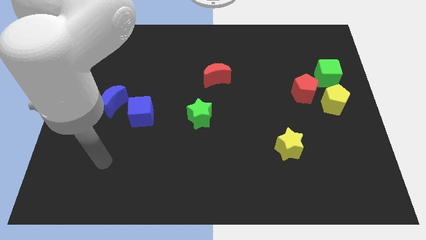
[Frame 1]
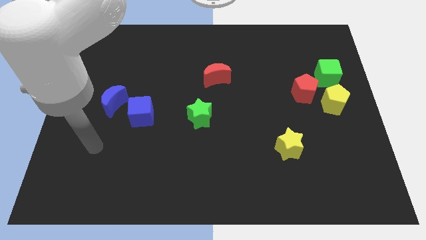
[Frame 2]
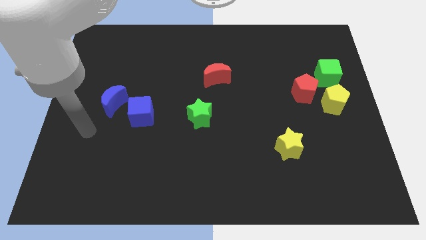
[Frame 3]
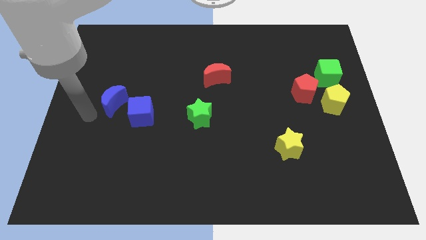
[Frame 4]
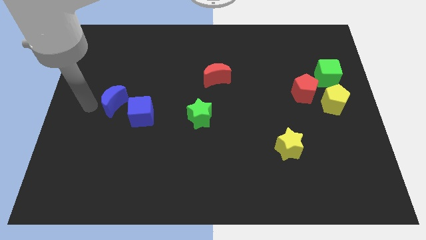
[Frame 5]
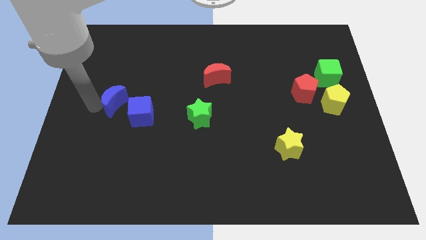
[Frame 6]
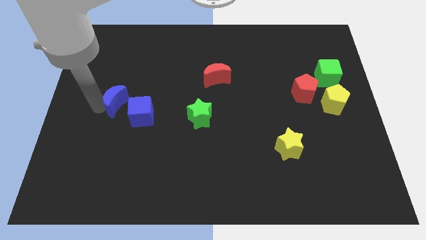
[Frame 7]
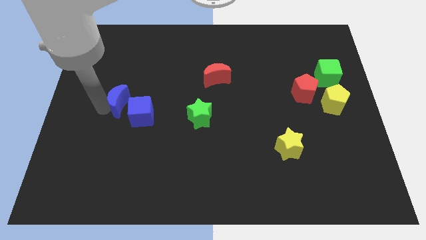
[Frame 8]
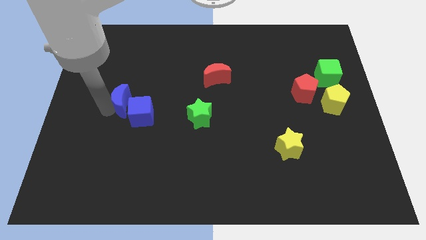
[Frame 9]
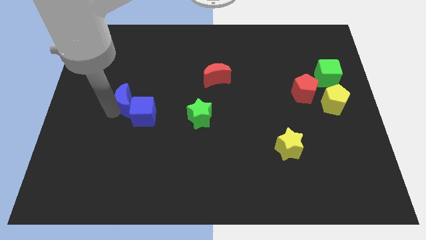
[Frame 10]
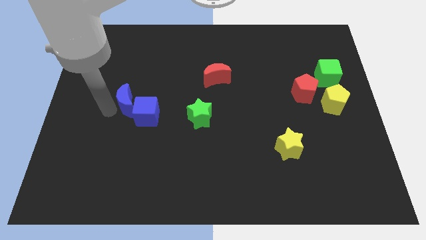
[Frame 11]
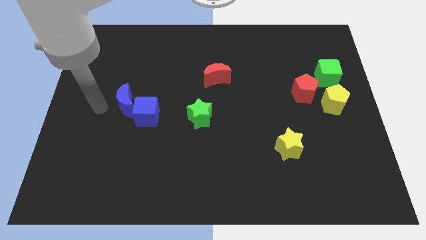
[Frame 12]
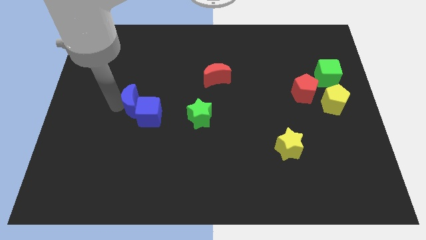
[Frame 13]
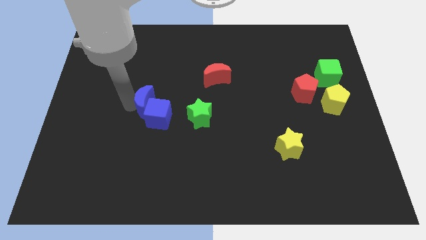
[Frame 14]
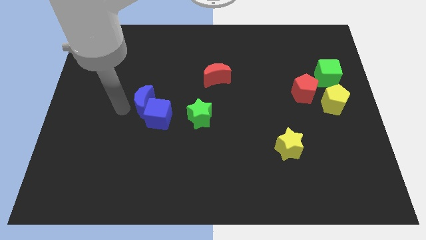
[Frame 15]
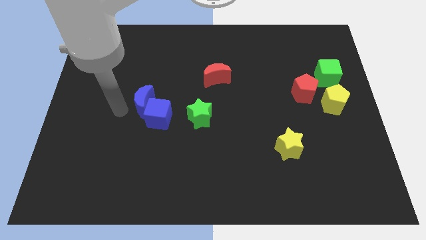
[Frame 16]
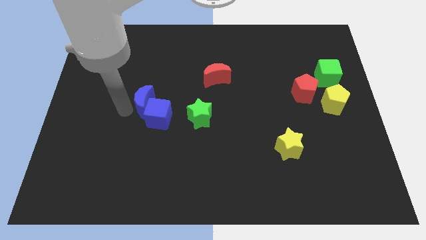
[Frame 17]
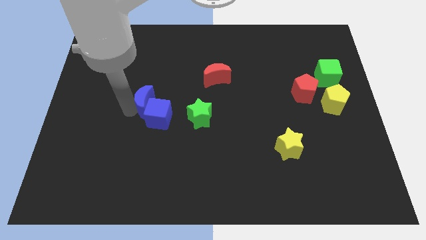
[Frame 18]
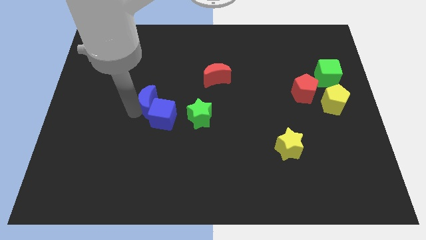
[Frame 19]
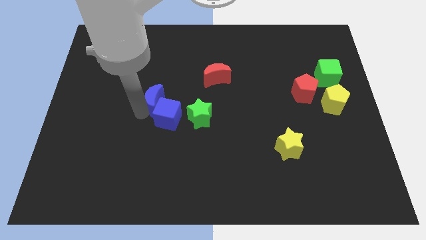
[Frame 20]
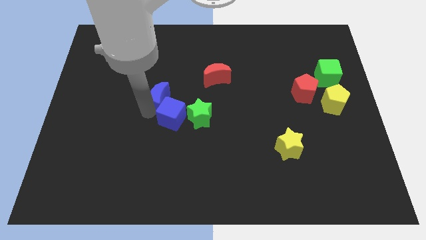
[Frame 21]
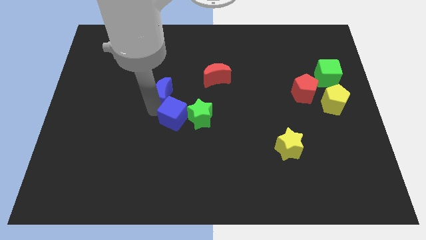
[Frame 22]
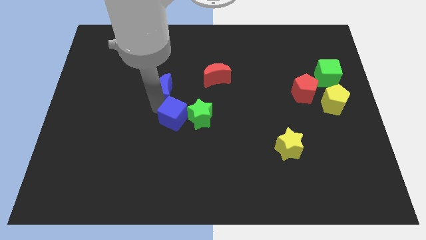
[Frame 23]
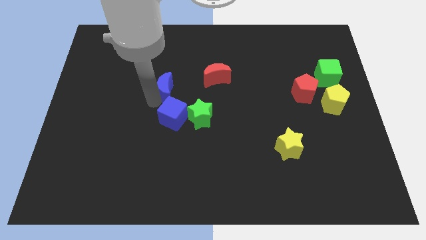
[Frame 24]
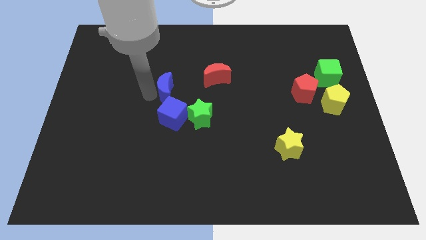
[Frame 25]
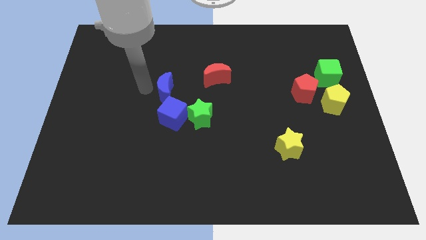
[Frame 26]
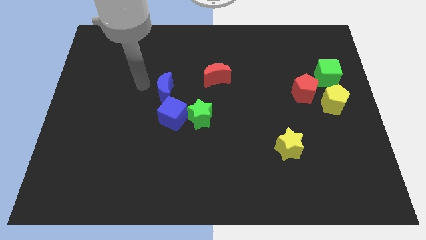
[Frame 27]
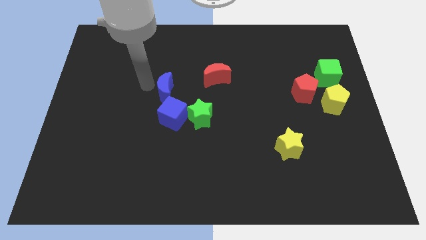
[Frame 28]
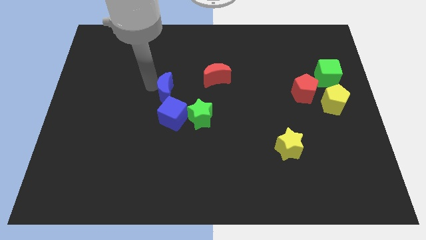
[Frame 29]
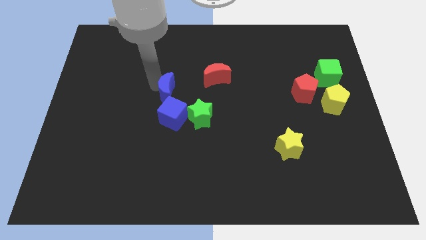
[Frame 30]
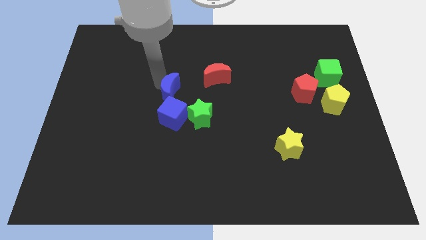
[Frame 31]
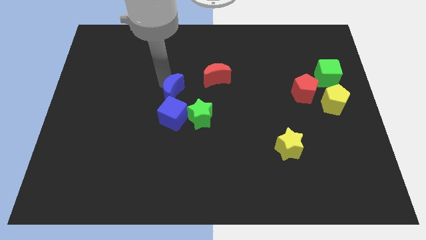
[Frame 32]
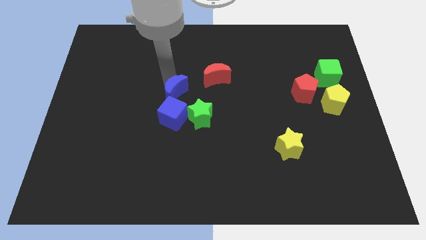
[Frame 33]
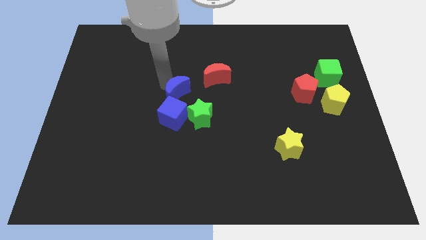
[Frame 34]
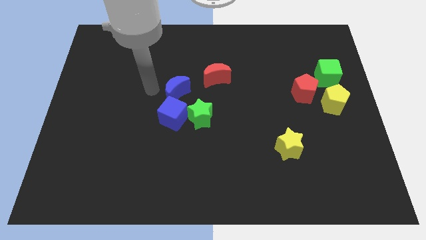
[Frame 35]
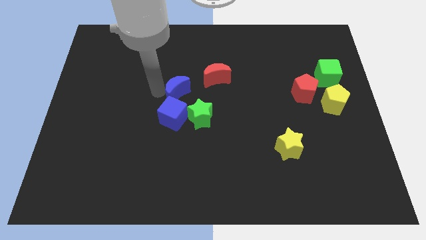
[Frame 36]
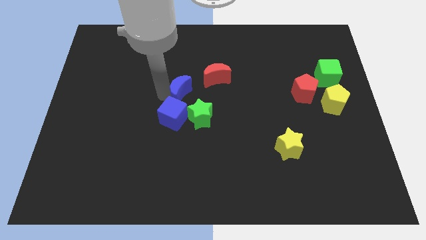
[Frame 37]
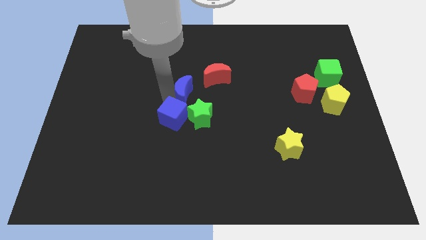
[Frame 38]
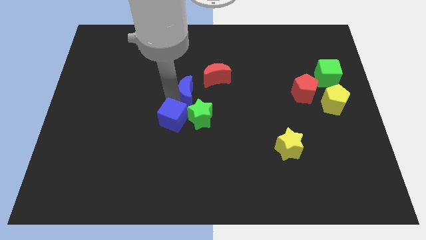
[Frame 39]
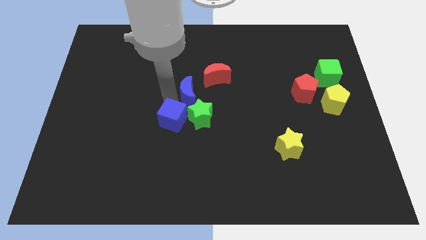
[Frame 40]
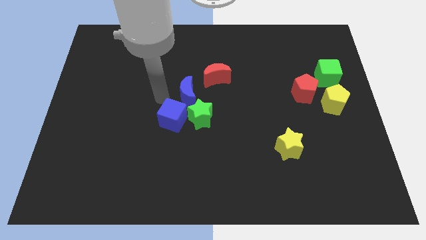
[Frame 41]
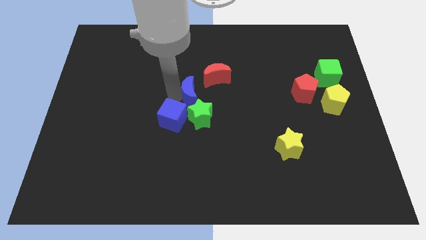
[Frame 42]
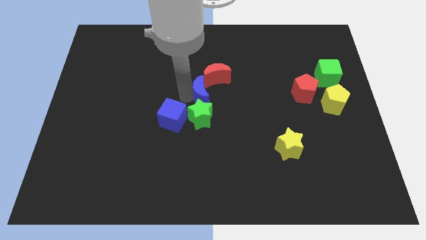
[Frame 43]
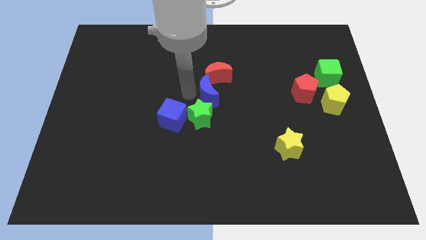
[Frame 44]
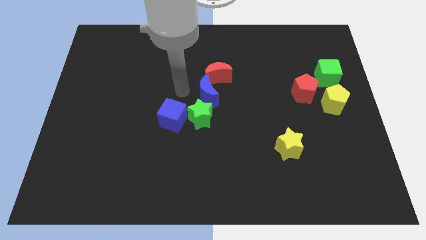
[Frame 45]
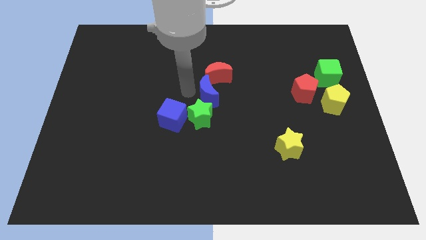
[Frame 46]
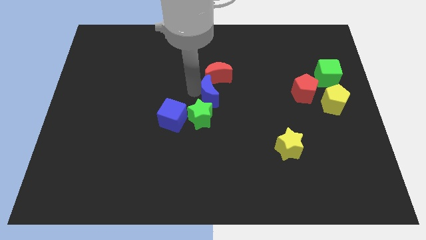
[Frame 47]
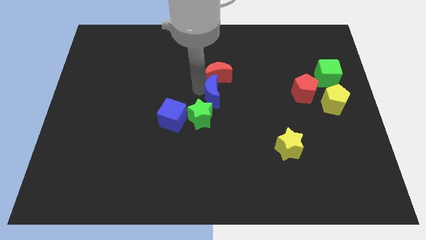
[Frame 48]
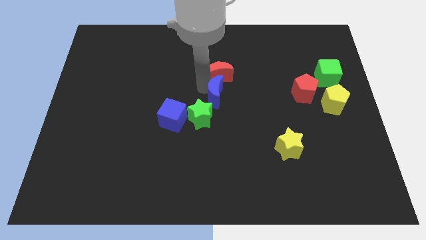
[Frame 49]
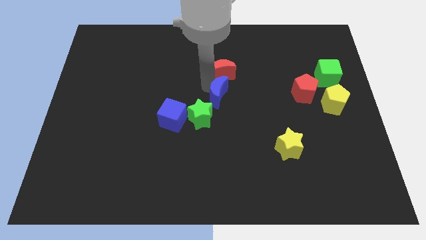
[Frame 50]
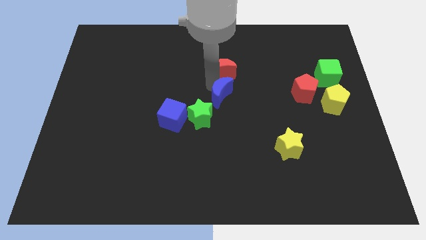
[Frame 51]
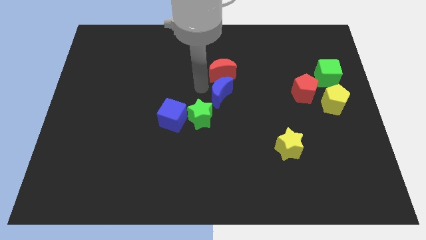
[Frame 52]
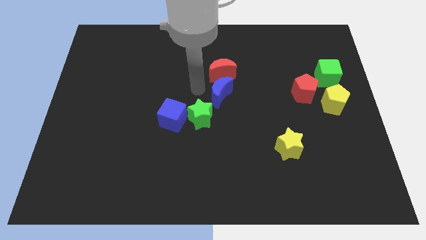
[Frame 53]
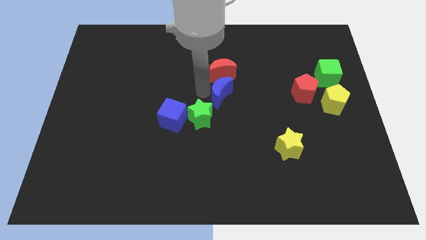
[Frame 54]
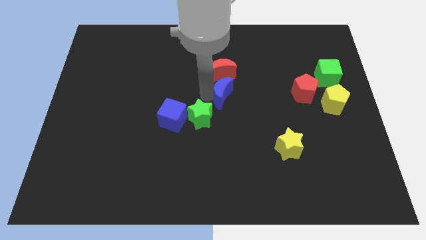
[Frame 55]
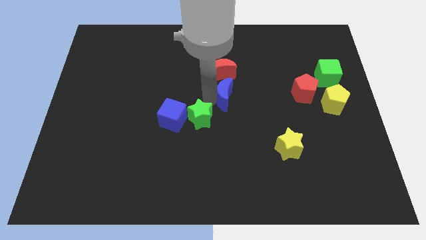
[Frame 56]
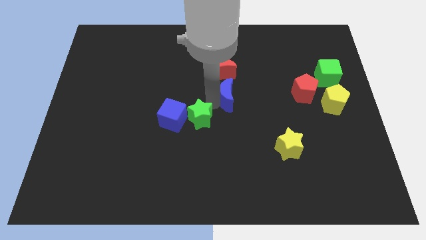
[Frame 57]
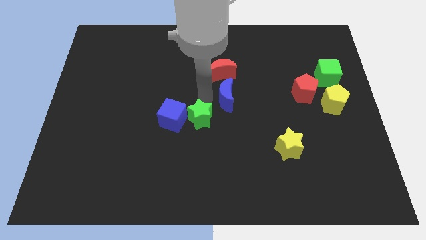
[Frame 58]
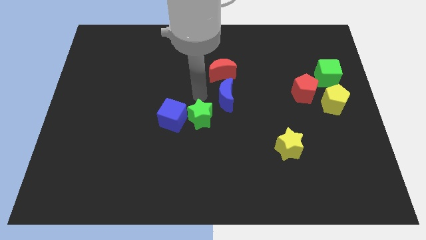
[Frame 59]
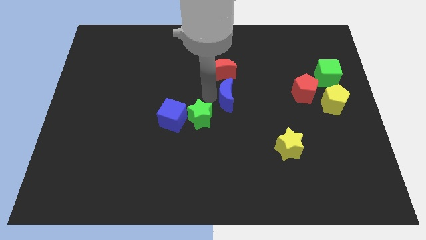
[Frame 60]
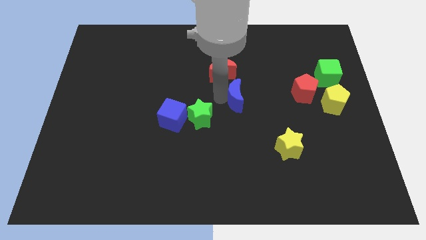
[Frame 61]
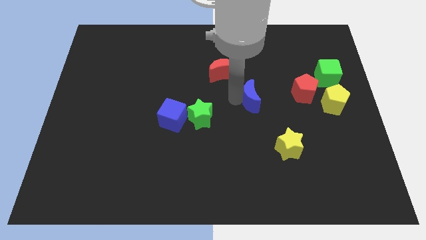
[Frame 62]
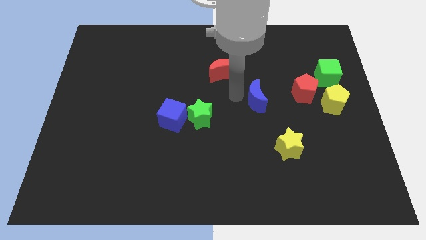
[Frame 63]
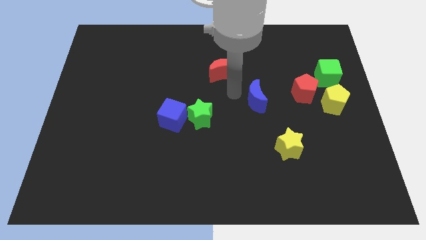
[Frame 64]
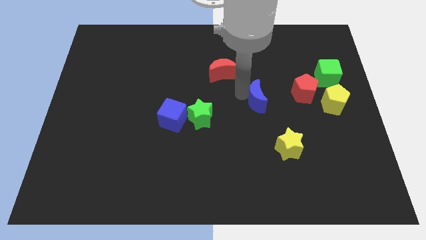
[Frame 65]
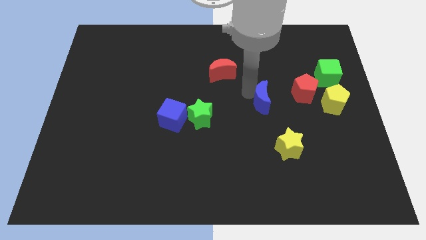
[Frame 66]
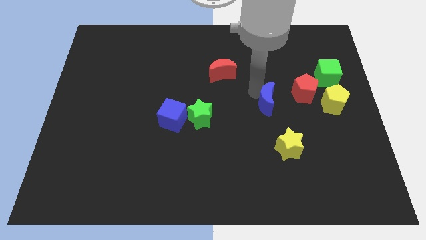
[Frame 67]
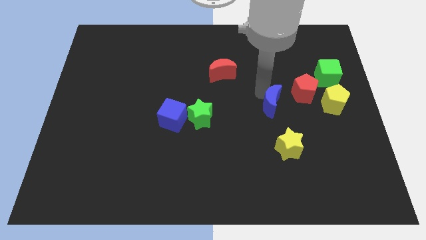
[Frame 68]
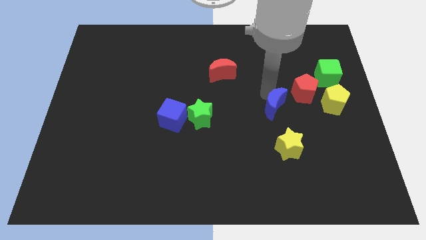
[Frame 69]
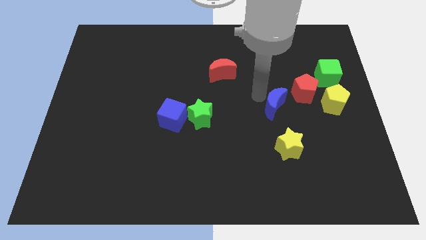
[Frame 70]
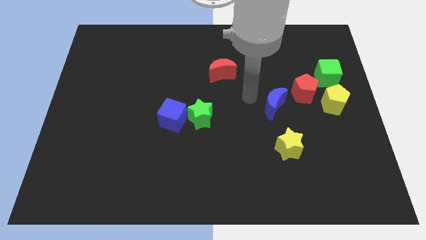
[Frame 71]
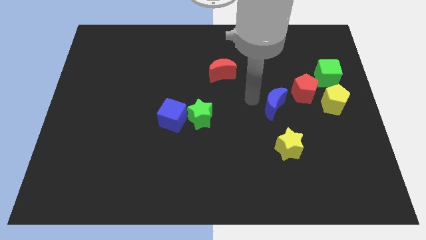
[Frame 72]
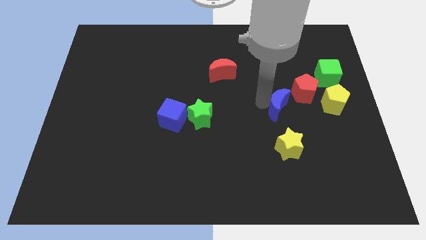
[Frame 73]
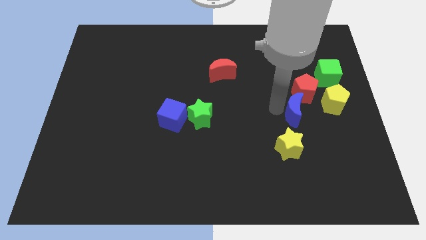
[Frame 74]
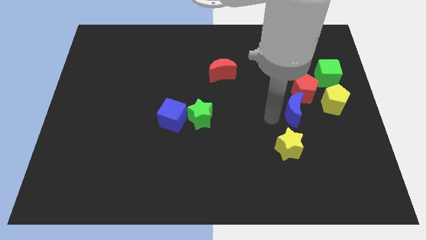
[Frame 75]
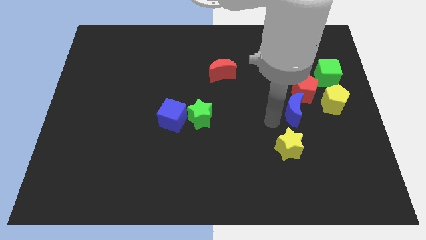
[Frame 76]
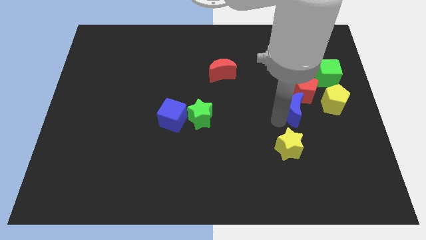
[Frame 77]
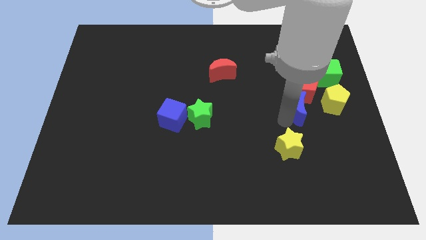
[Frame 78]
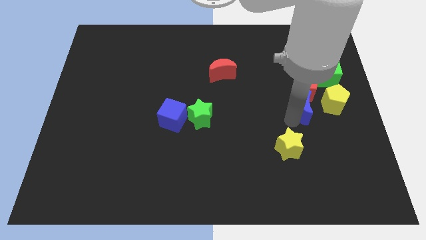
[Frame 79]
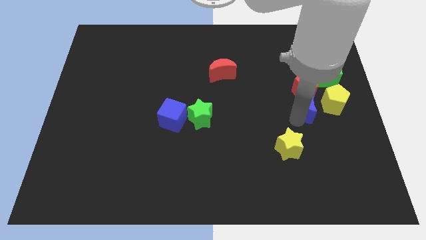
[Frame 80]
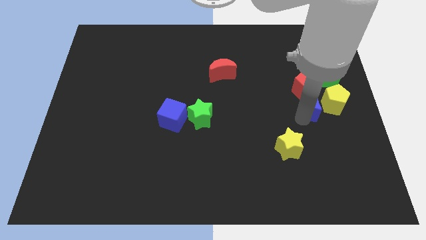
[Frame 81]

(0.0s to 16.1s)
move the blue moon towards the yellow pentagon
